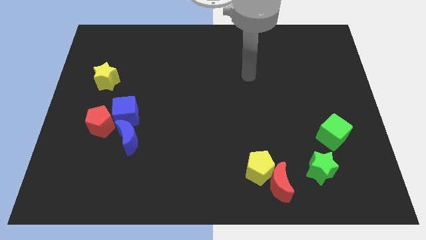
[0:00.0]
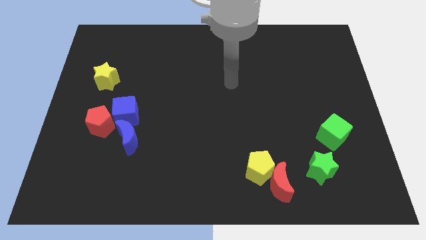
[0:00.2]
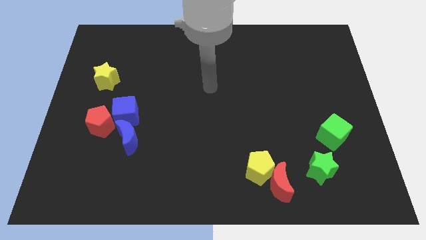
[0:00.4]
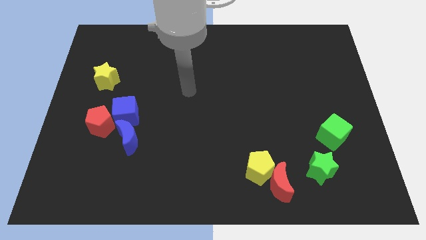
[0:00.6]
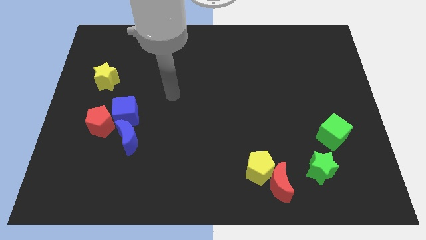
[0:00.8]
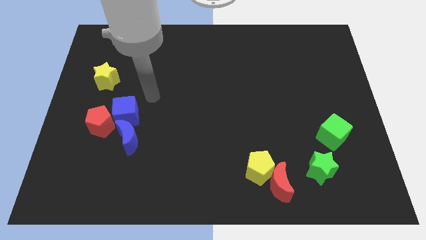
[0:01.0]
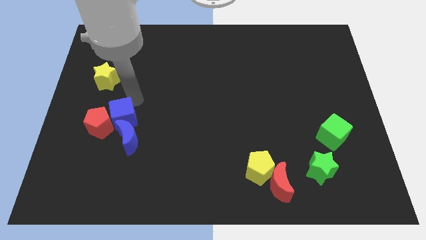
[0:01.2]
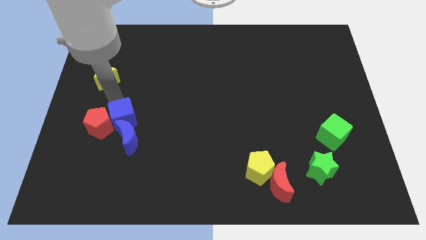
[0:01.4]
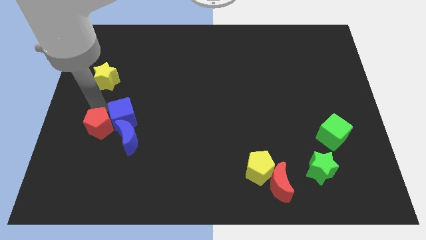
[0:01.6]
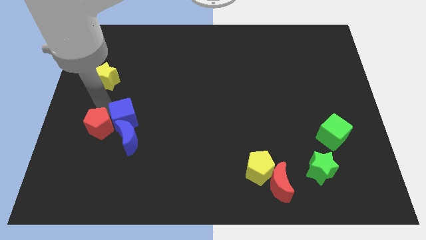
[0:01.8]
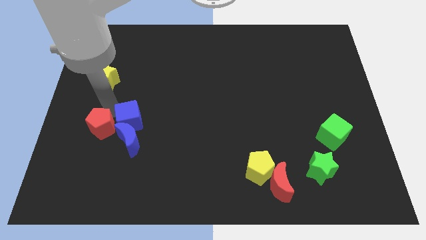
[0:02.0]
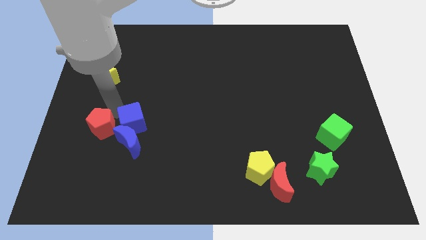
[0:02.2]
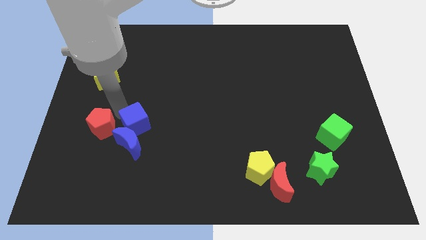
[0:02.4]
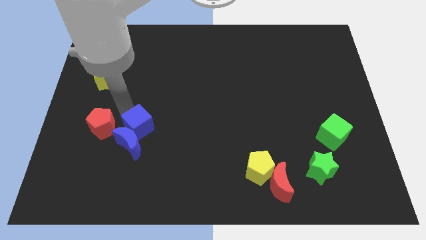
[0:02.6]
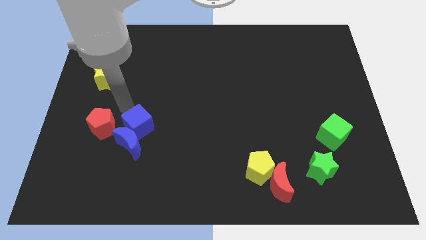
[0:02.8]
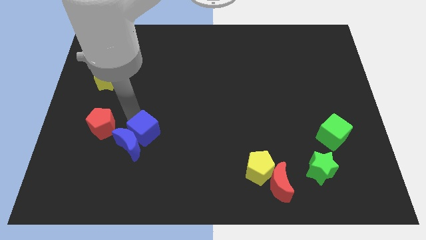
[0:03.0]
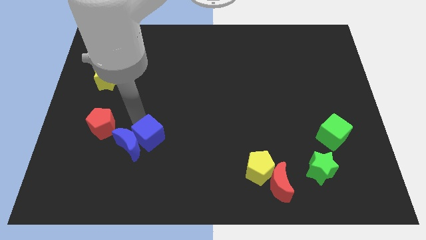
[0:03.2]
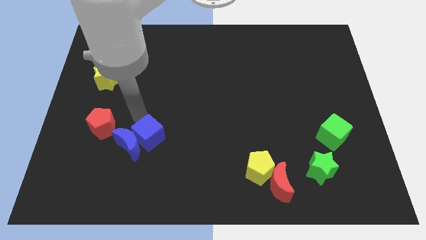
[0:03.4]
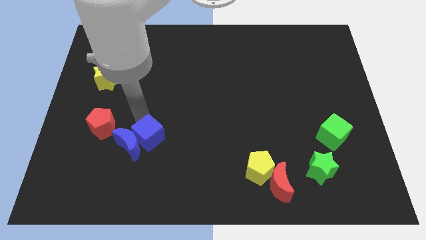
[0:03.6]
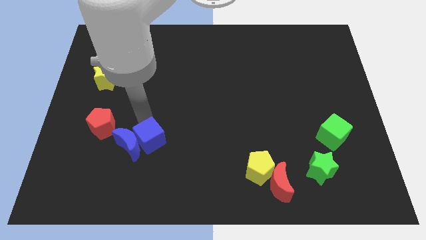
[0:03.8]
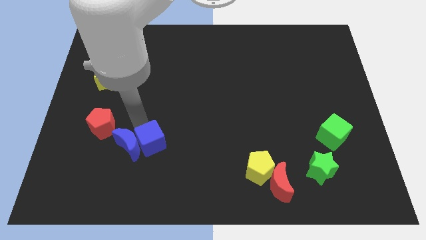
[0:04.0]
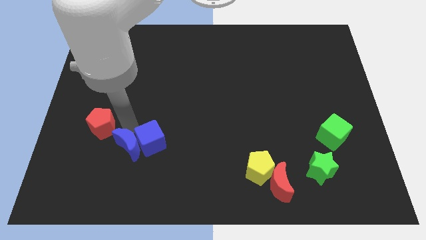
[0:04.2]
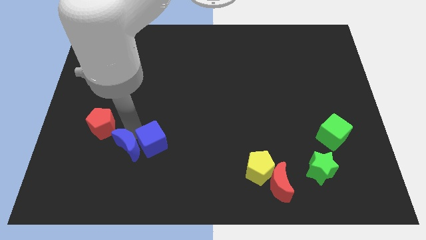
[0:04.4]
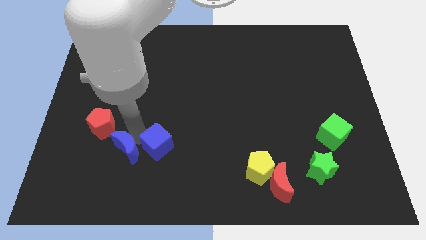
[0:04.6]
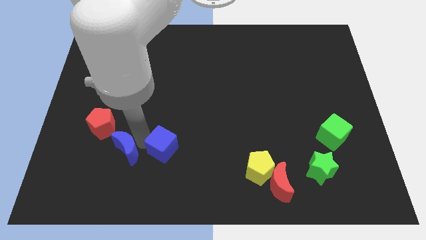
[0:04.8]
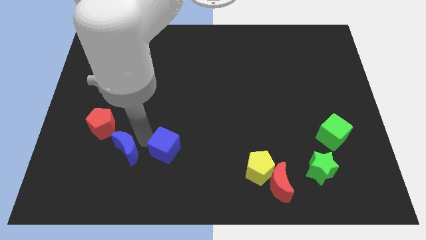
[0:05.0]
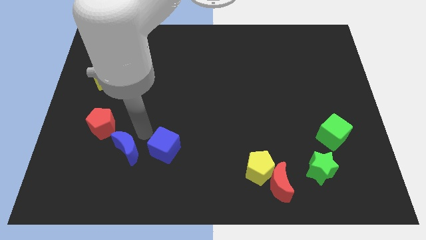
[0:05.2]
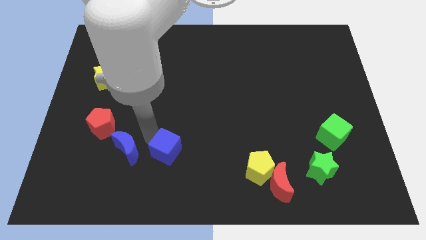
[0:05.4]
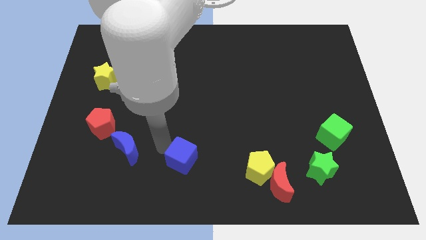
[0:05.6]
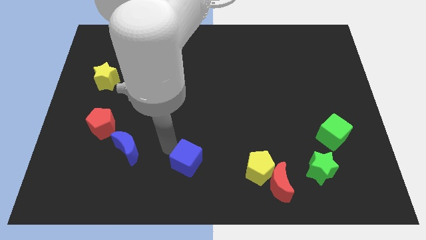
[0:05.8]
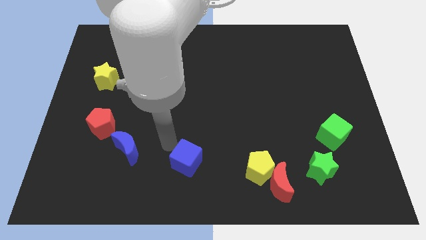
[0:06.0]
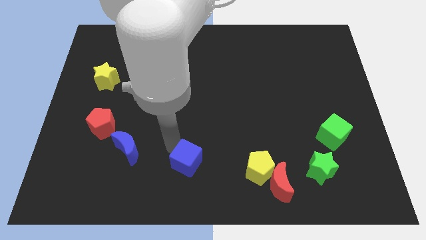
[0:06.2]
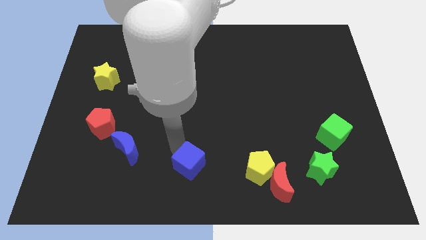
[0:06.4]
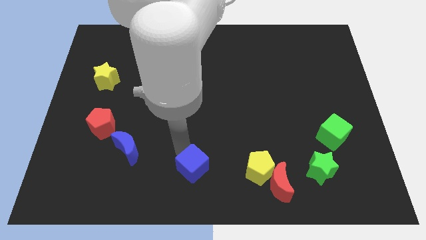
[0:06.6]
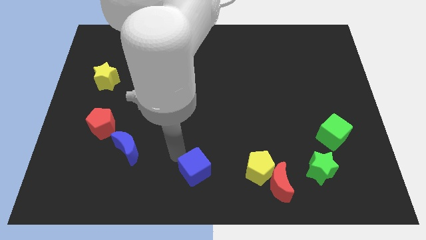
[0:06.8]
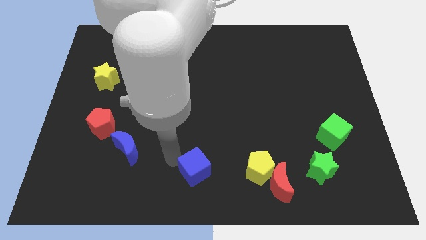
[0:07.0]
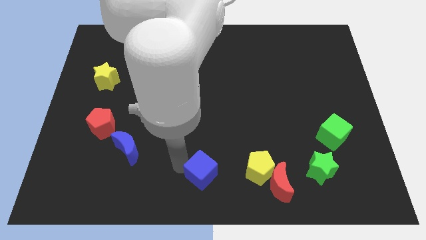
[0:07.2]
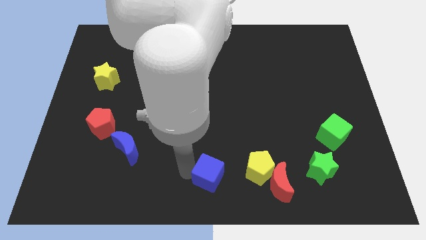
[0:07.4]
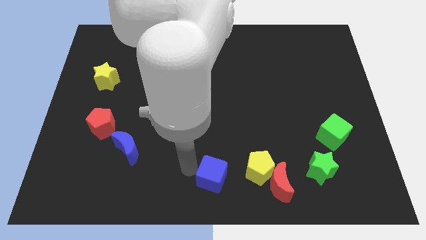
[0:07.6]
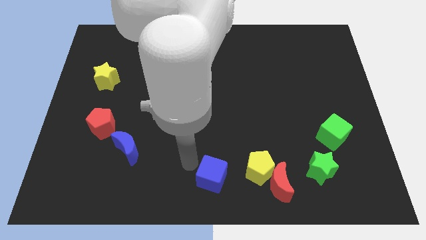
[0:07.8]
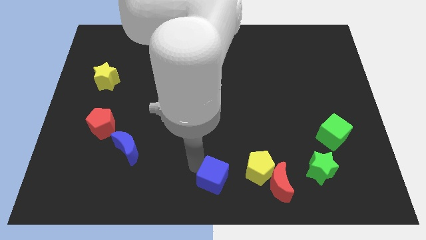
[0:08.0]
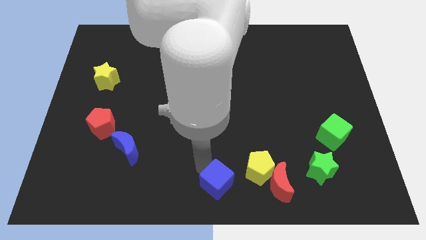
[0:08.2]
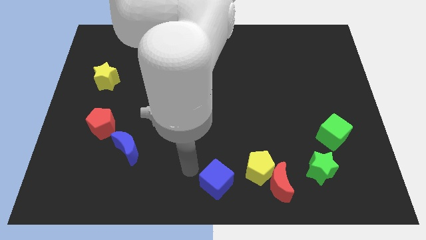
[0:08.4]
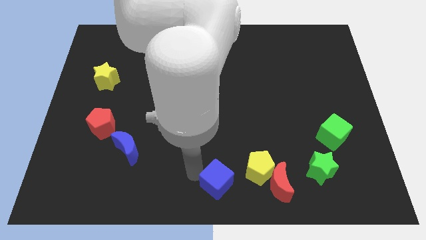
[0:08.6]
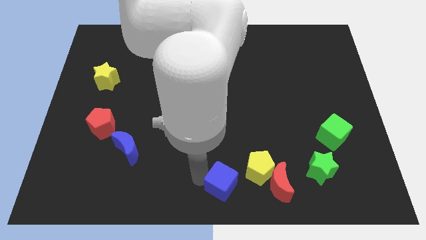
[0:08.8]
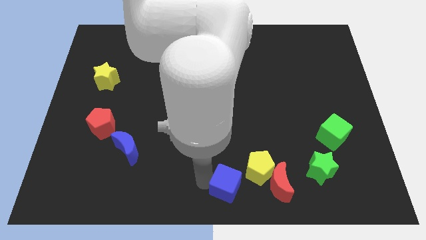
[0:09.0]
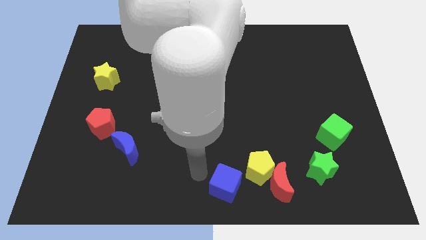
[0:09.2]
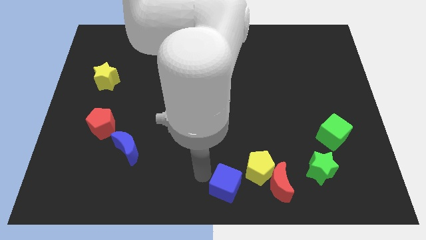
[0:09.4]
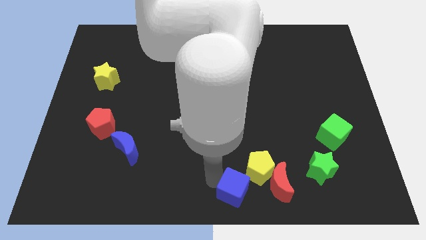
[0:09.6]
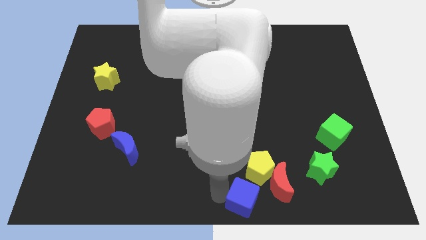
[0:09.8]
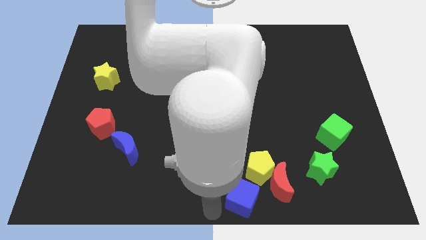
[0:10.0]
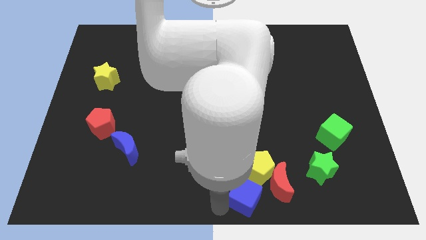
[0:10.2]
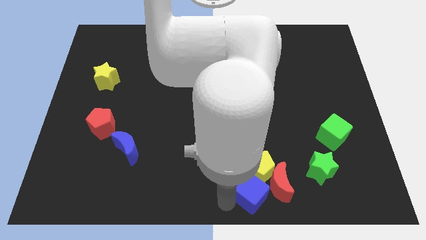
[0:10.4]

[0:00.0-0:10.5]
move the blue cube towards the red moon

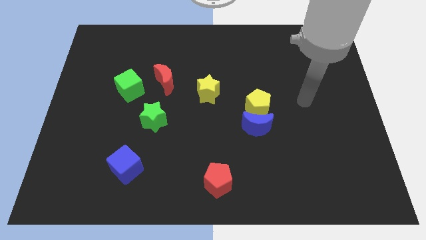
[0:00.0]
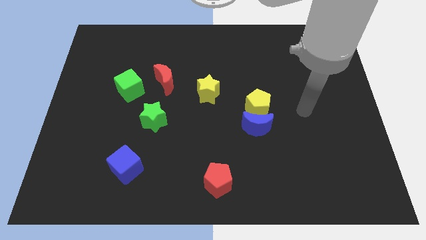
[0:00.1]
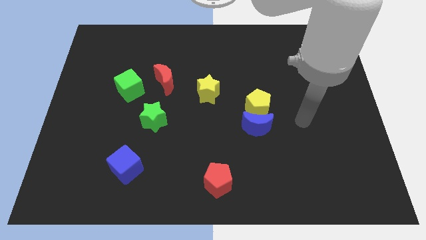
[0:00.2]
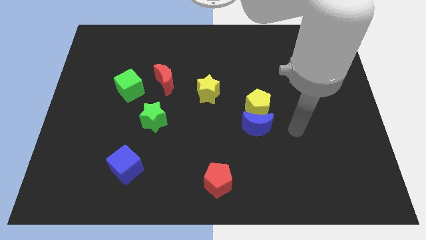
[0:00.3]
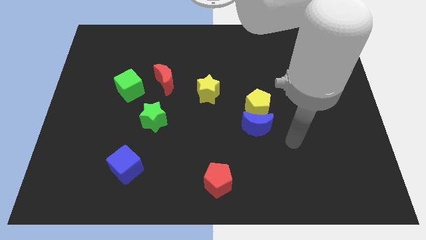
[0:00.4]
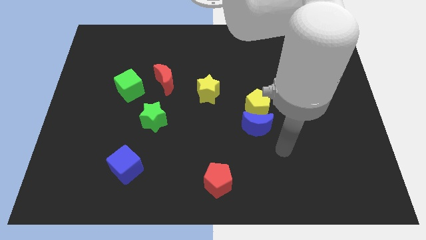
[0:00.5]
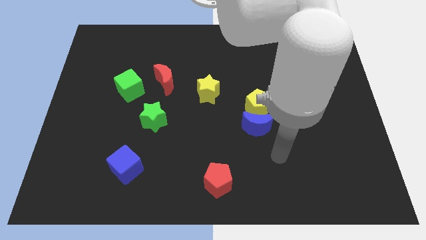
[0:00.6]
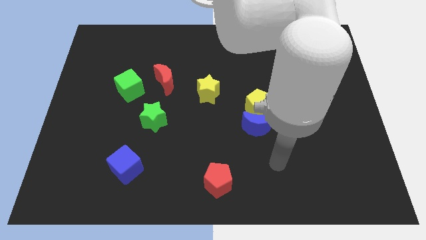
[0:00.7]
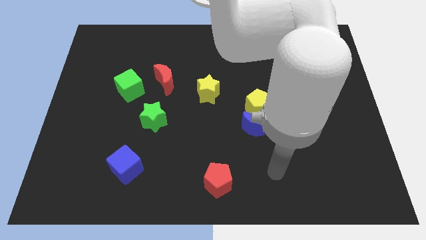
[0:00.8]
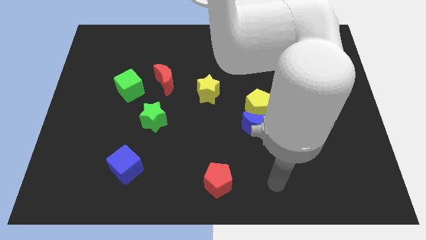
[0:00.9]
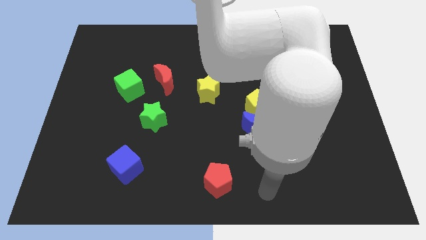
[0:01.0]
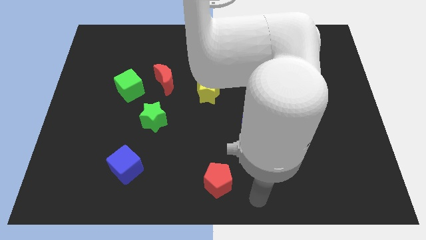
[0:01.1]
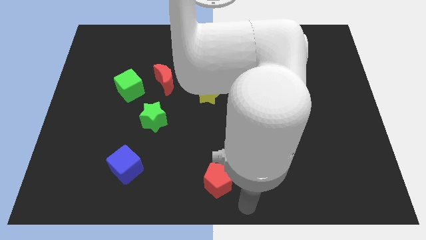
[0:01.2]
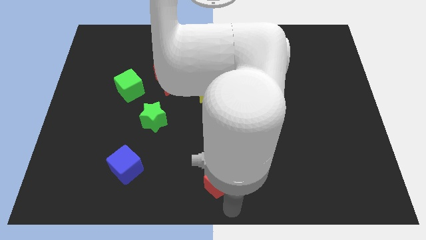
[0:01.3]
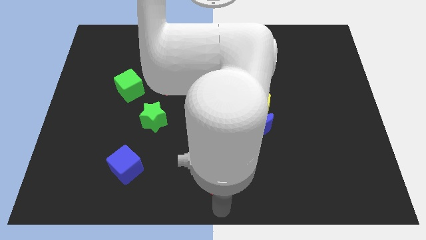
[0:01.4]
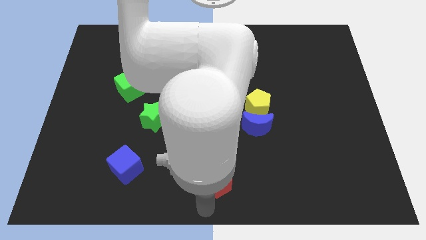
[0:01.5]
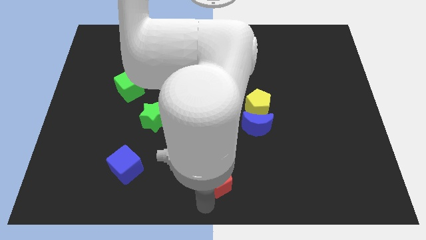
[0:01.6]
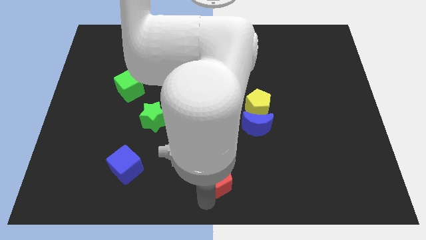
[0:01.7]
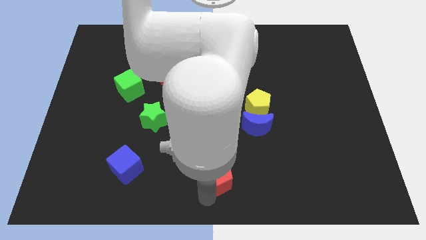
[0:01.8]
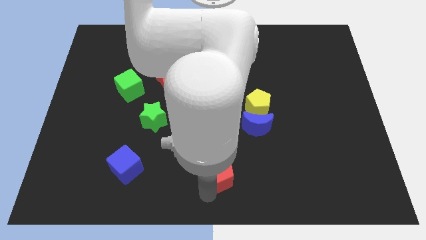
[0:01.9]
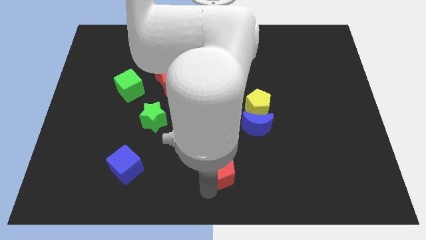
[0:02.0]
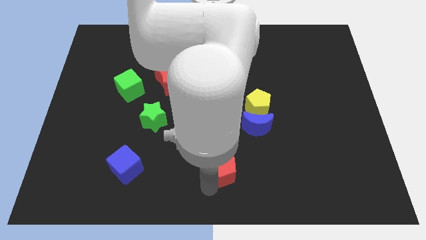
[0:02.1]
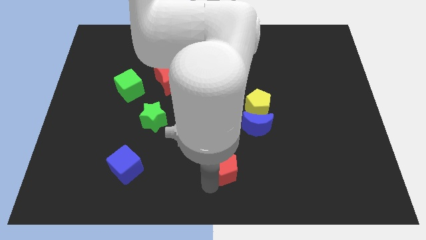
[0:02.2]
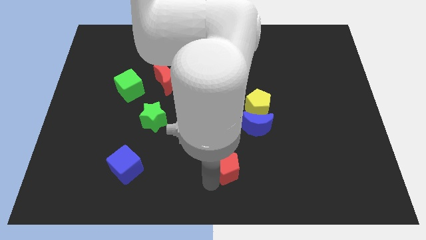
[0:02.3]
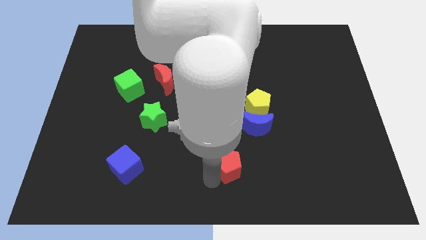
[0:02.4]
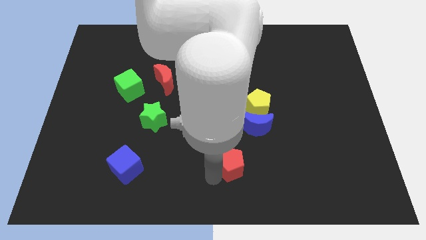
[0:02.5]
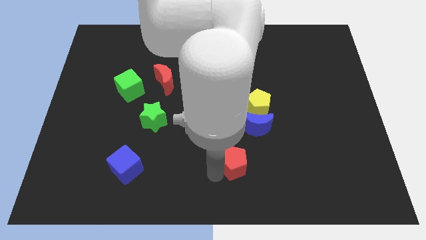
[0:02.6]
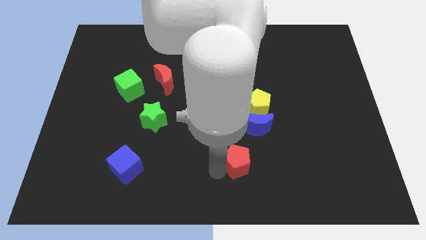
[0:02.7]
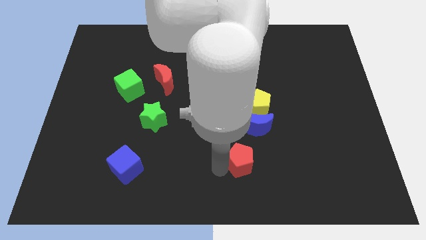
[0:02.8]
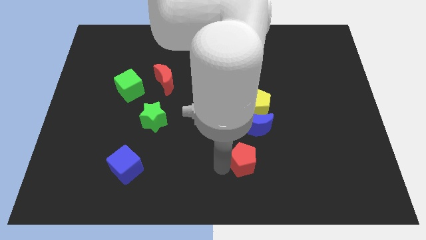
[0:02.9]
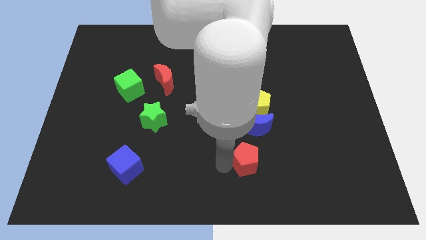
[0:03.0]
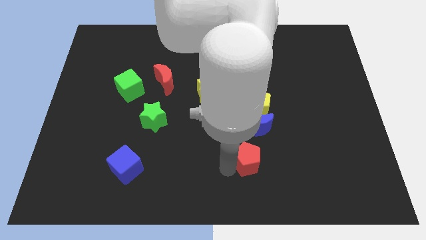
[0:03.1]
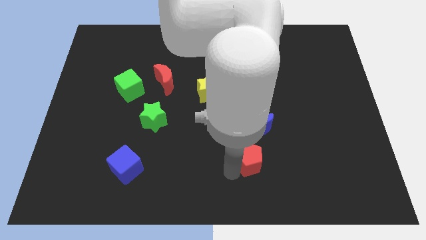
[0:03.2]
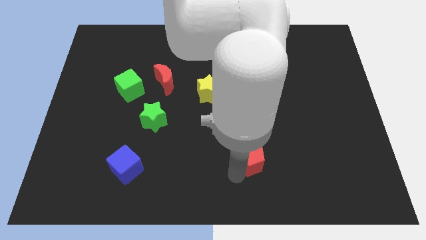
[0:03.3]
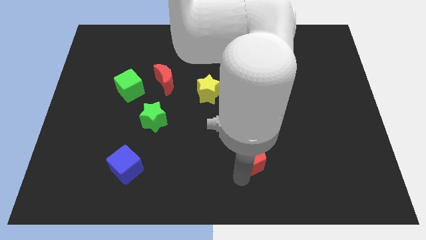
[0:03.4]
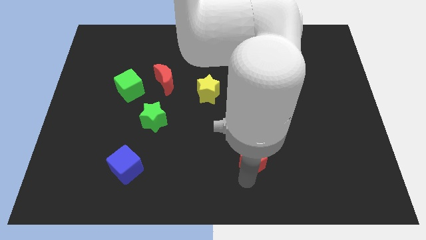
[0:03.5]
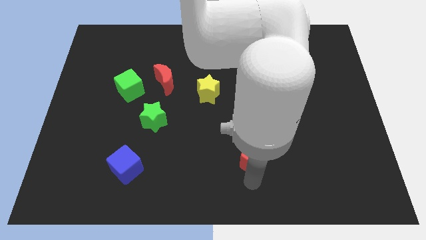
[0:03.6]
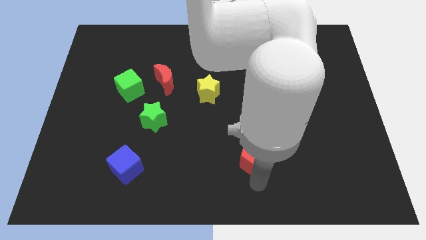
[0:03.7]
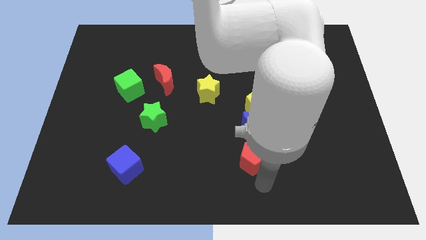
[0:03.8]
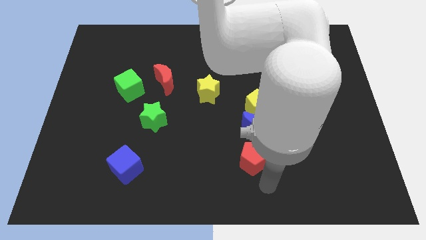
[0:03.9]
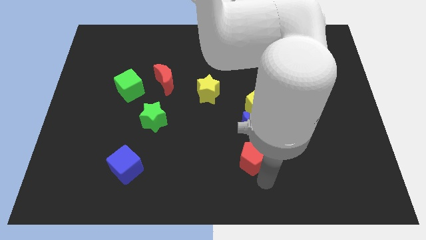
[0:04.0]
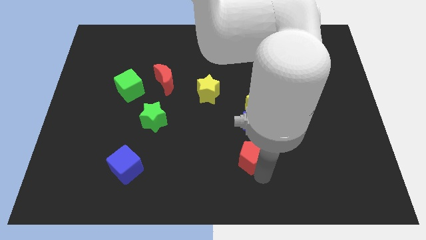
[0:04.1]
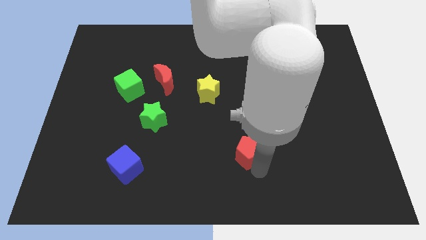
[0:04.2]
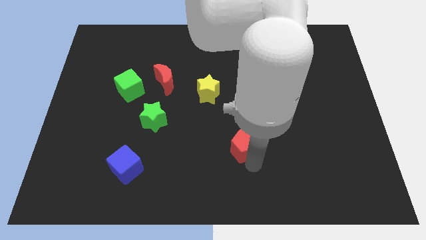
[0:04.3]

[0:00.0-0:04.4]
push the red pentagon to the blue moon
